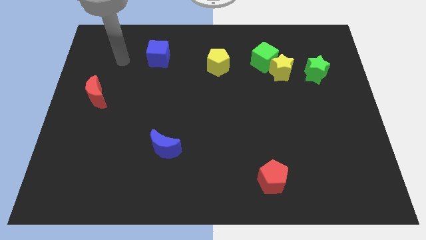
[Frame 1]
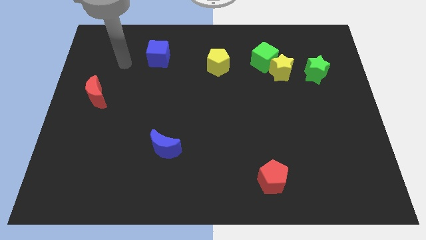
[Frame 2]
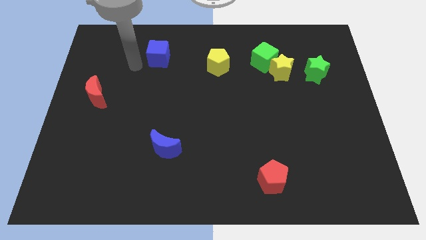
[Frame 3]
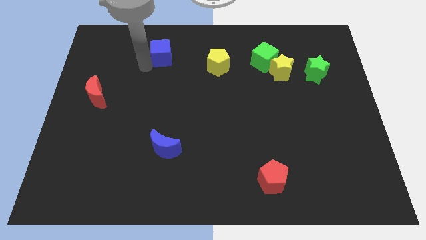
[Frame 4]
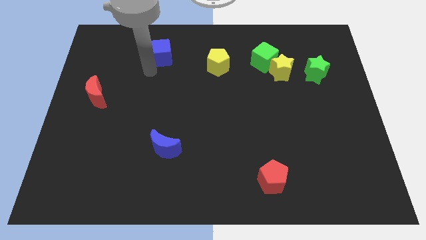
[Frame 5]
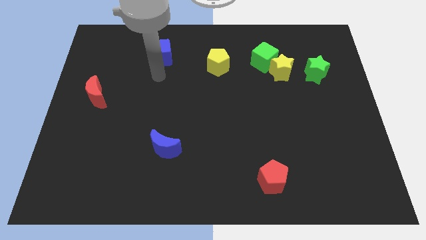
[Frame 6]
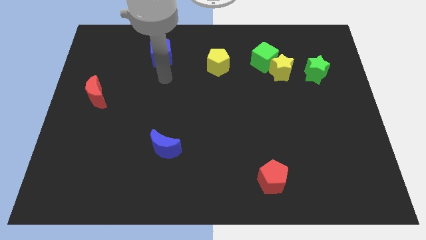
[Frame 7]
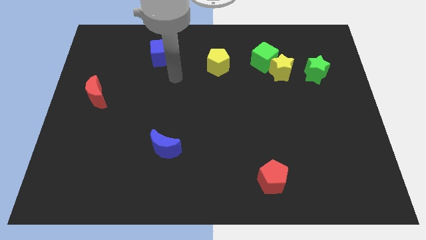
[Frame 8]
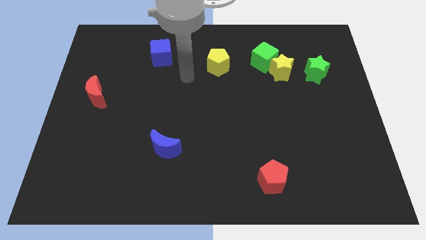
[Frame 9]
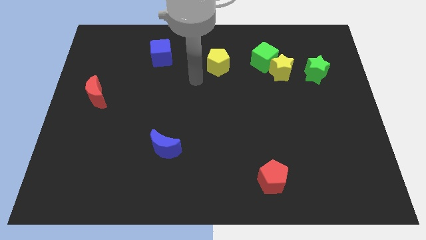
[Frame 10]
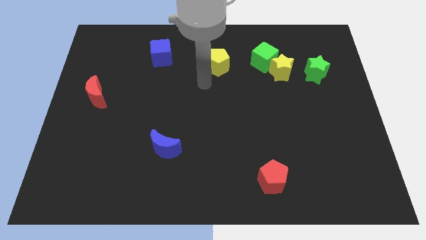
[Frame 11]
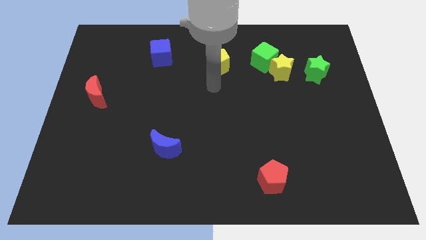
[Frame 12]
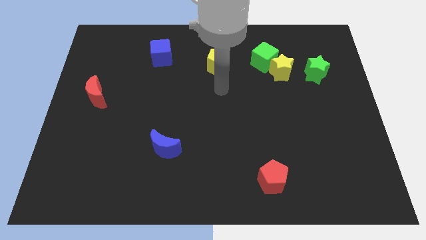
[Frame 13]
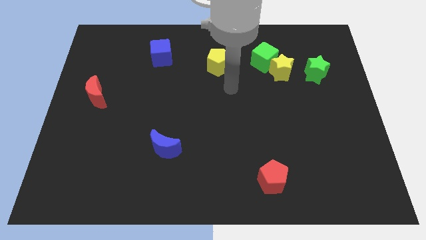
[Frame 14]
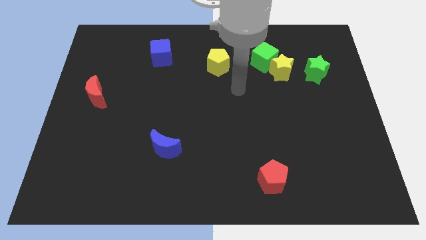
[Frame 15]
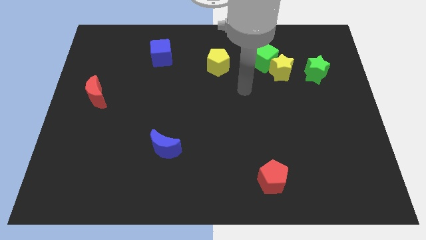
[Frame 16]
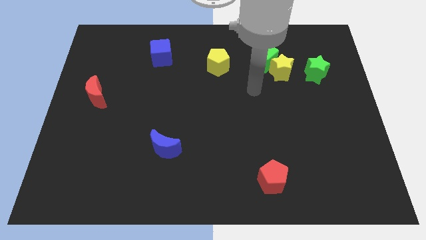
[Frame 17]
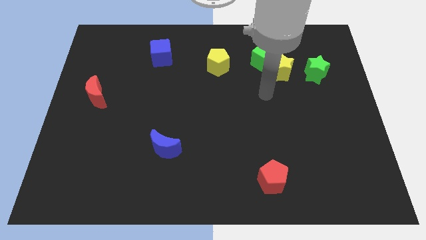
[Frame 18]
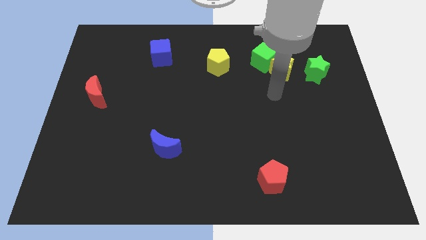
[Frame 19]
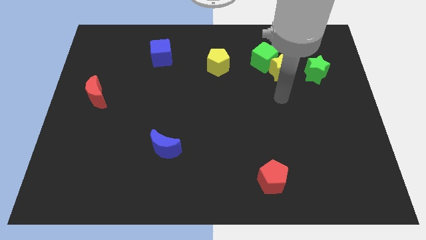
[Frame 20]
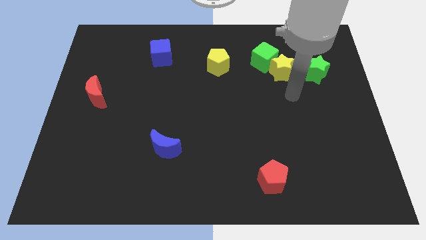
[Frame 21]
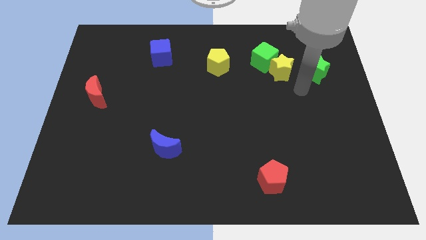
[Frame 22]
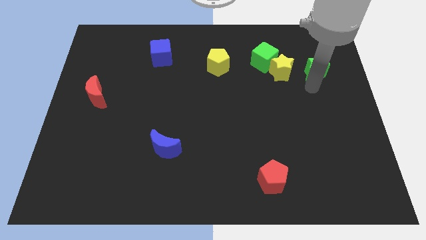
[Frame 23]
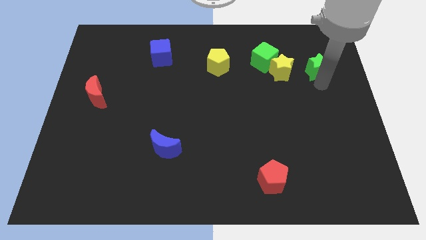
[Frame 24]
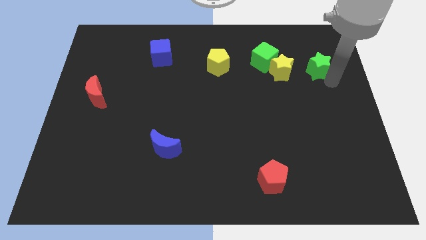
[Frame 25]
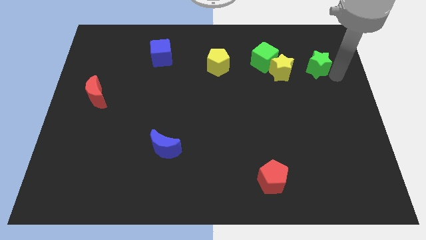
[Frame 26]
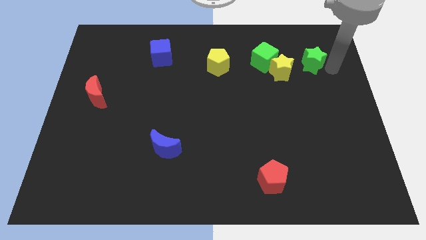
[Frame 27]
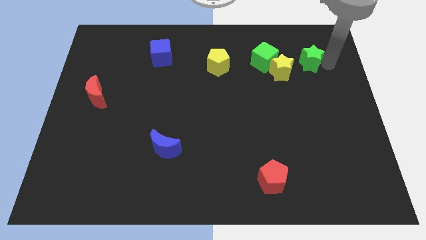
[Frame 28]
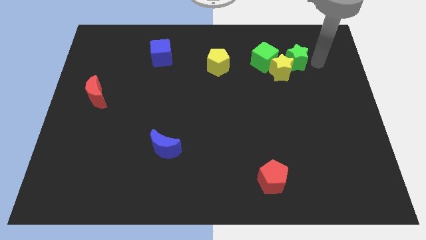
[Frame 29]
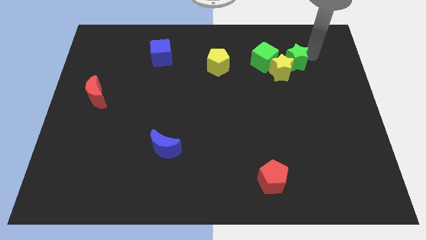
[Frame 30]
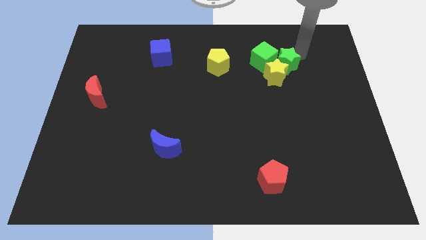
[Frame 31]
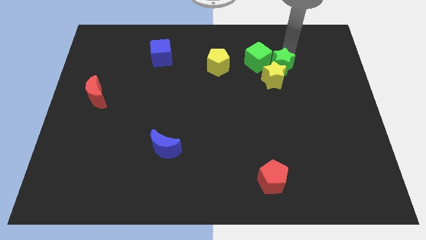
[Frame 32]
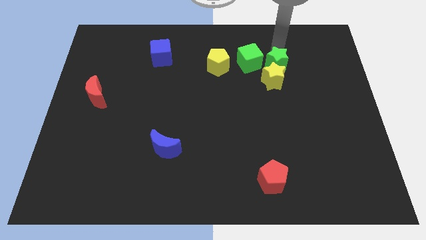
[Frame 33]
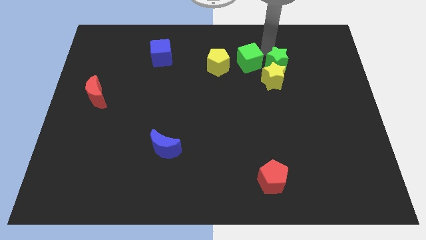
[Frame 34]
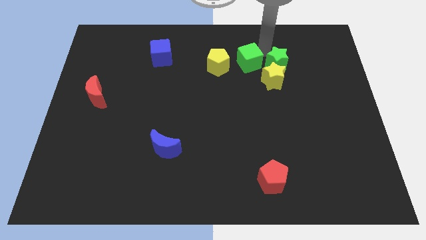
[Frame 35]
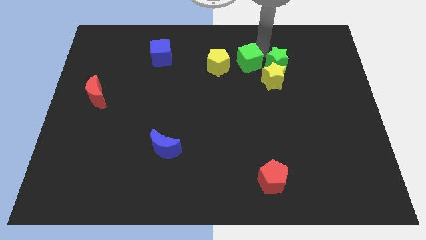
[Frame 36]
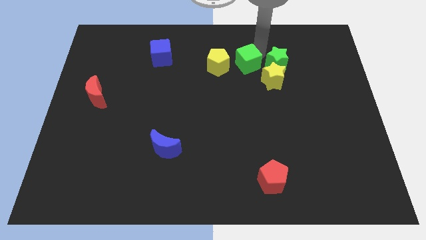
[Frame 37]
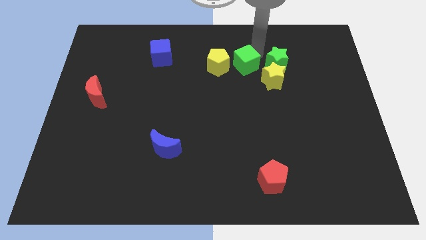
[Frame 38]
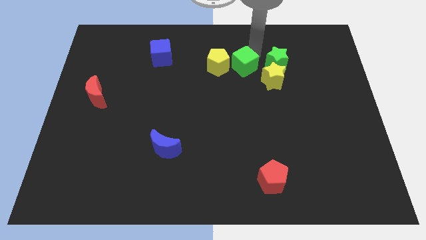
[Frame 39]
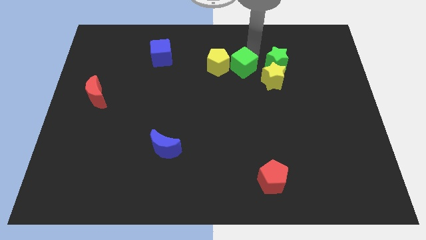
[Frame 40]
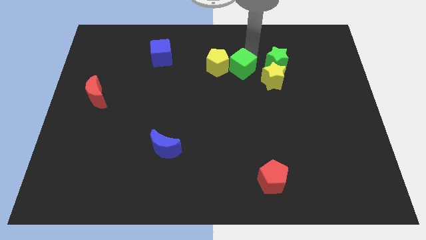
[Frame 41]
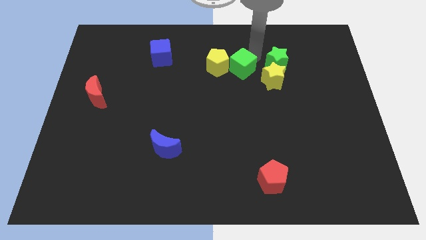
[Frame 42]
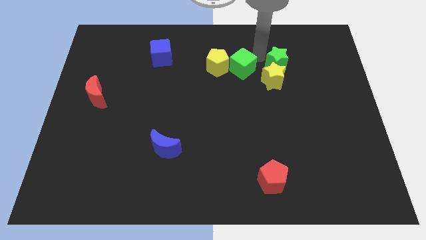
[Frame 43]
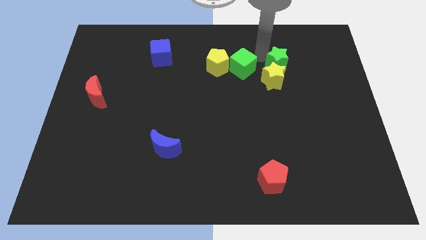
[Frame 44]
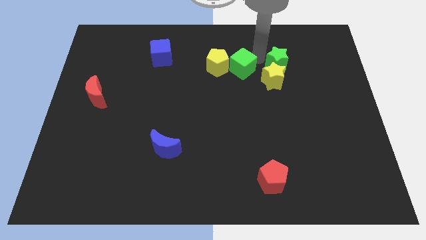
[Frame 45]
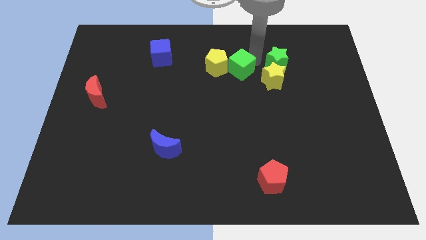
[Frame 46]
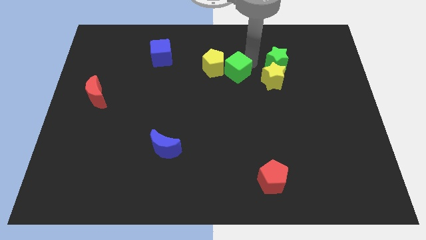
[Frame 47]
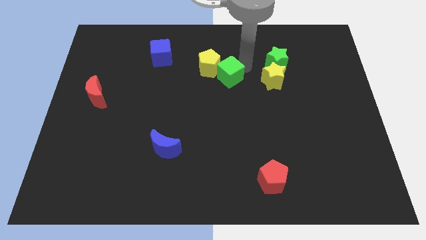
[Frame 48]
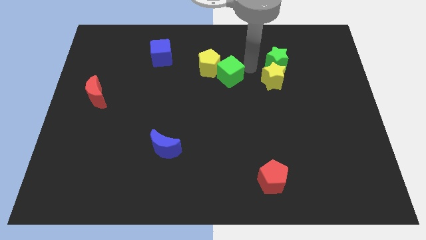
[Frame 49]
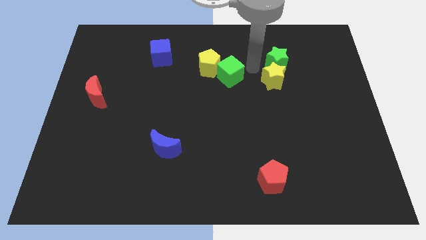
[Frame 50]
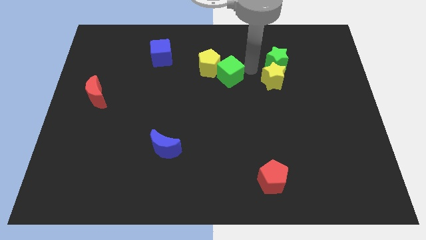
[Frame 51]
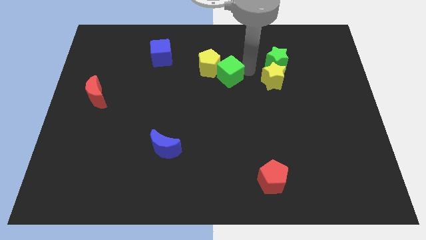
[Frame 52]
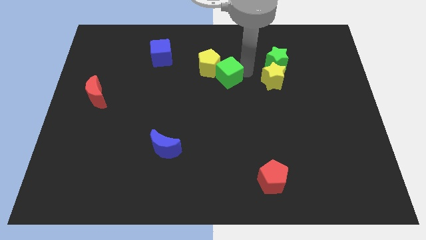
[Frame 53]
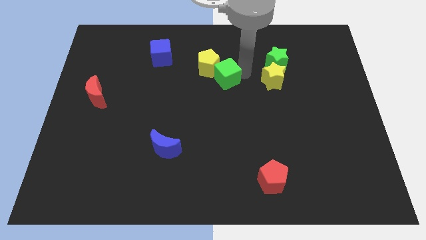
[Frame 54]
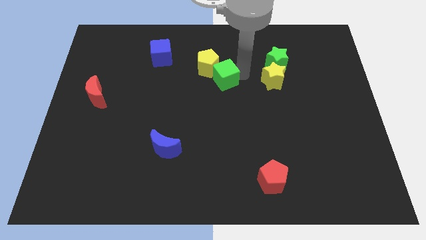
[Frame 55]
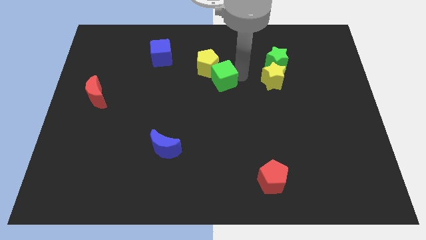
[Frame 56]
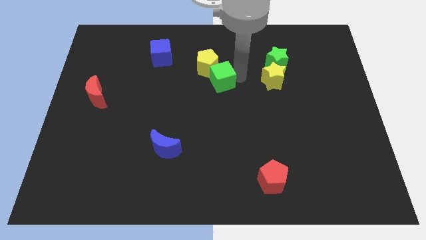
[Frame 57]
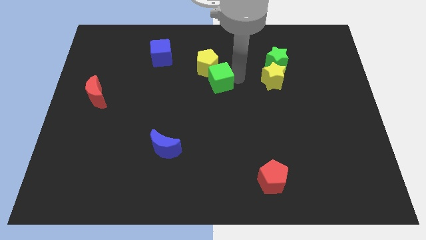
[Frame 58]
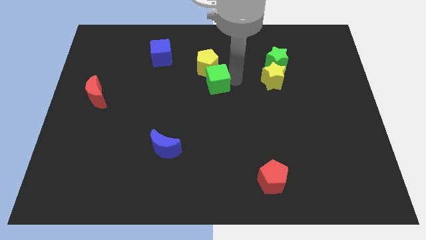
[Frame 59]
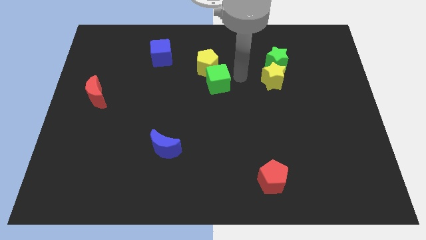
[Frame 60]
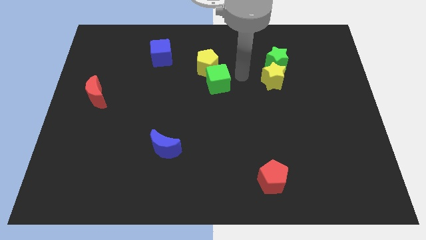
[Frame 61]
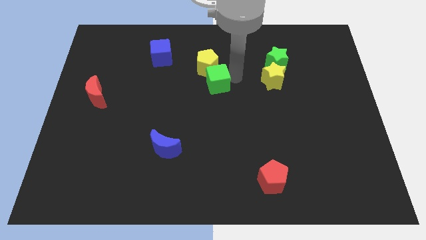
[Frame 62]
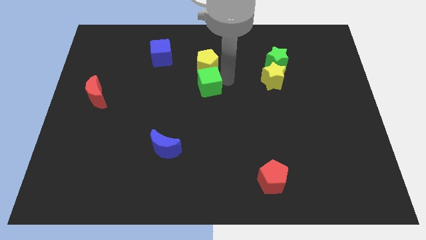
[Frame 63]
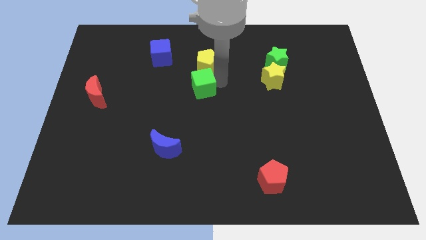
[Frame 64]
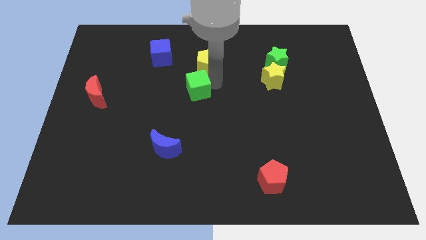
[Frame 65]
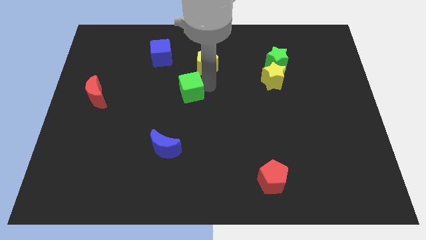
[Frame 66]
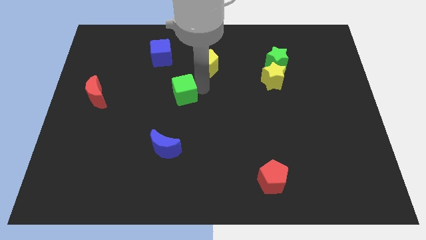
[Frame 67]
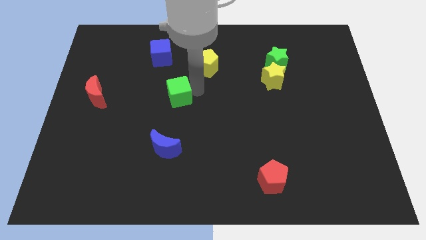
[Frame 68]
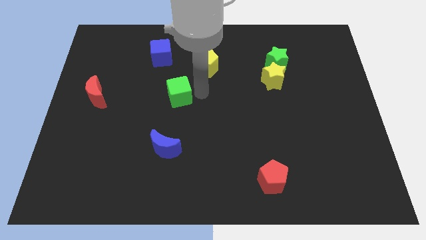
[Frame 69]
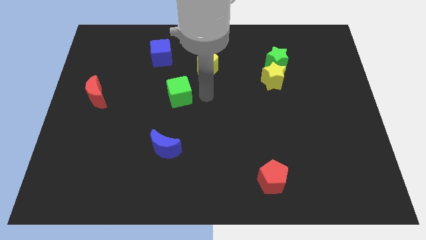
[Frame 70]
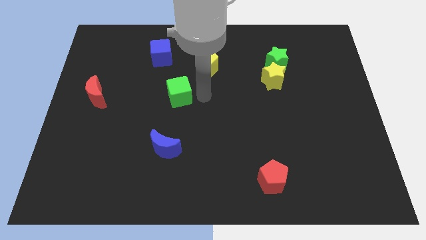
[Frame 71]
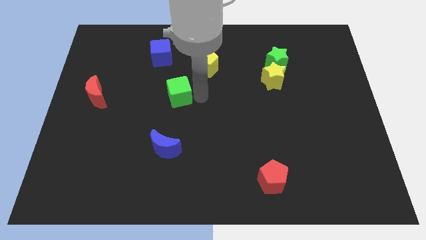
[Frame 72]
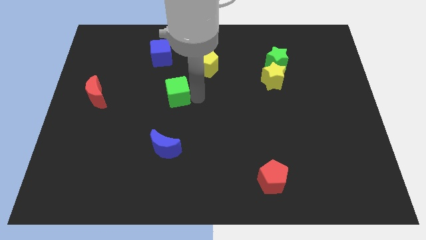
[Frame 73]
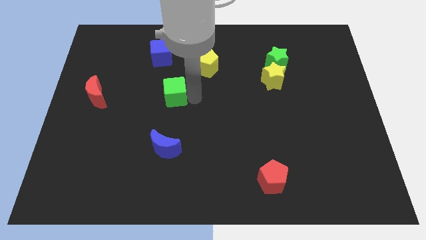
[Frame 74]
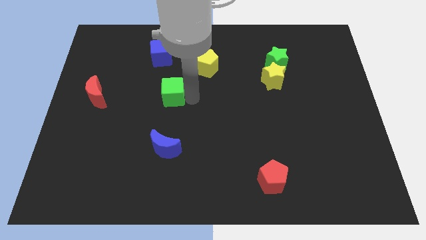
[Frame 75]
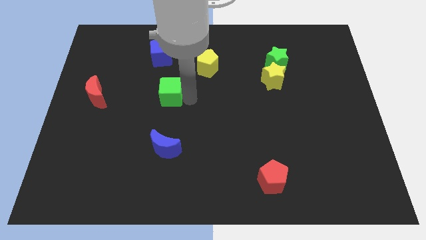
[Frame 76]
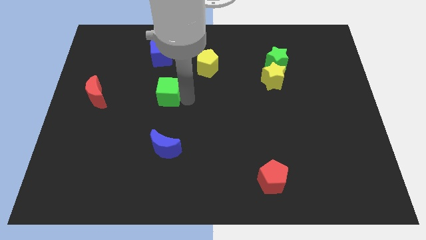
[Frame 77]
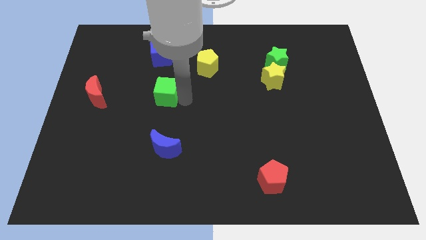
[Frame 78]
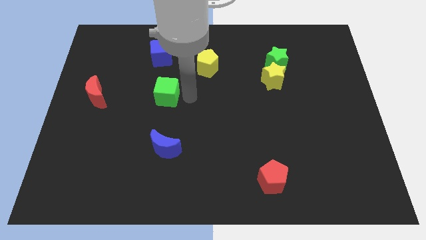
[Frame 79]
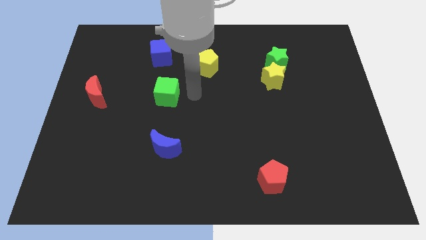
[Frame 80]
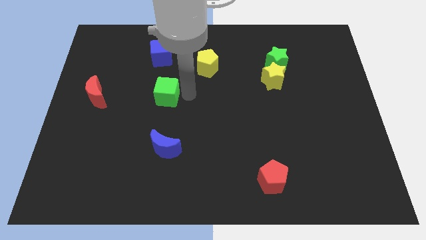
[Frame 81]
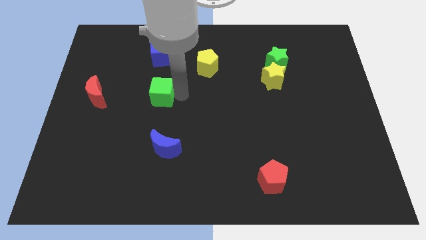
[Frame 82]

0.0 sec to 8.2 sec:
slide the green cube right of the red moon
